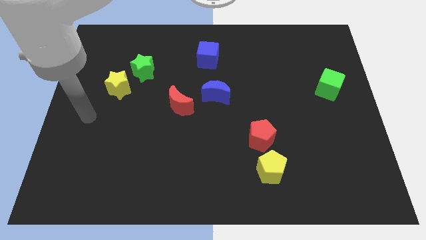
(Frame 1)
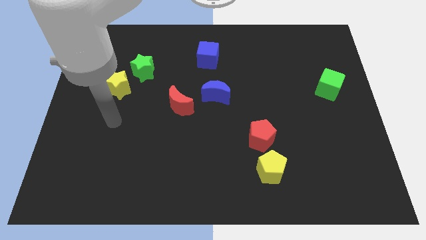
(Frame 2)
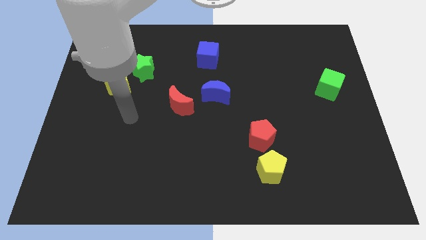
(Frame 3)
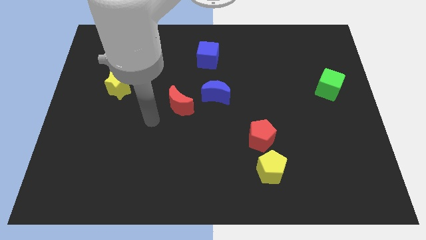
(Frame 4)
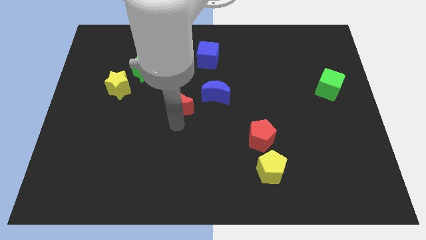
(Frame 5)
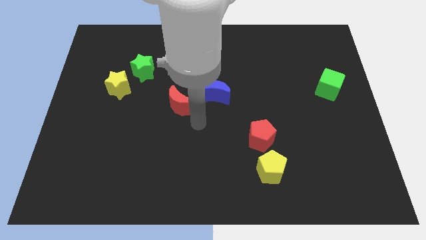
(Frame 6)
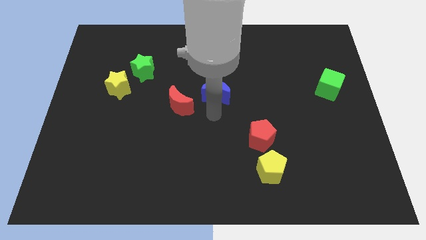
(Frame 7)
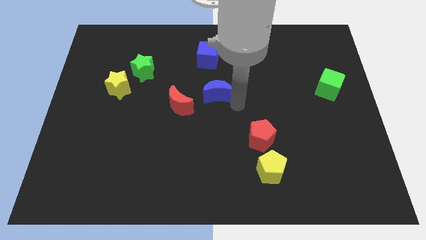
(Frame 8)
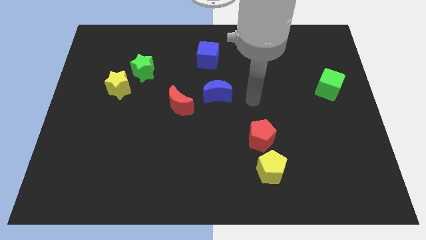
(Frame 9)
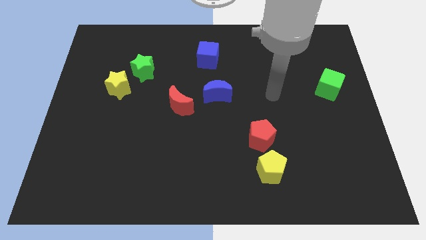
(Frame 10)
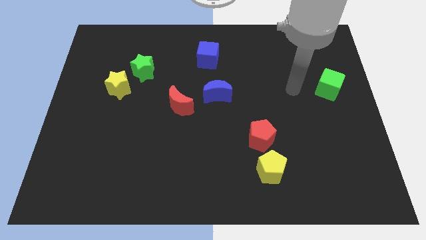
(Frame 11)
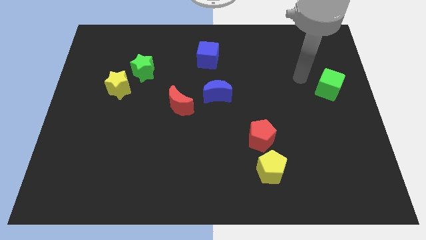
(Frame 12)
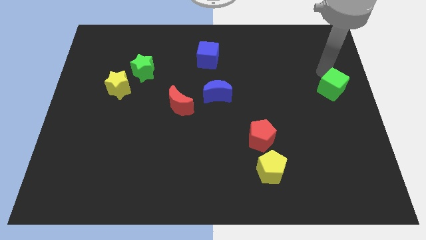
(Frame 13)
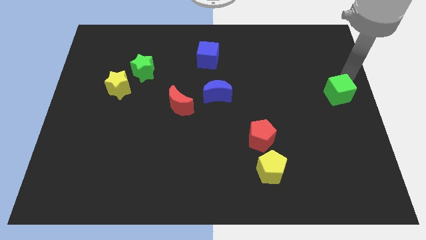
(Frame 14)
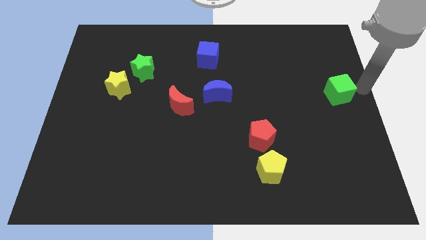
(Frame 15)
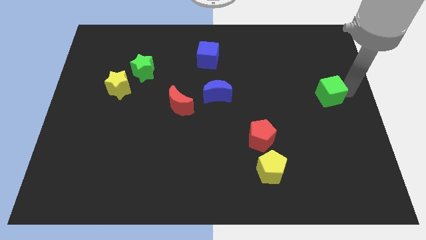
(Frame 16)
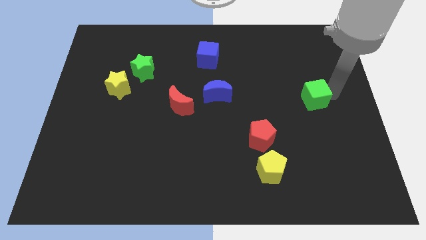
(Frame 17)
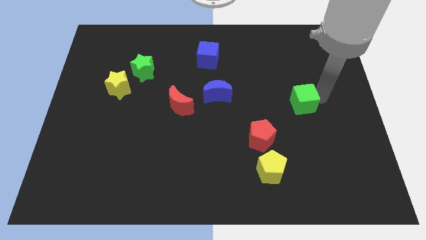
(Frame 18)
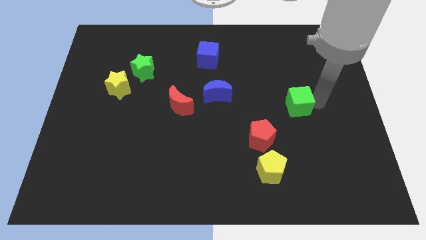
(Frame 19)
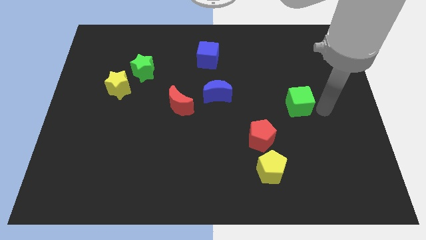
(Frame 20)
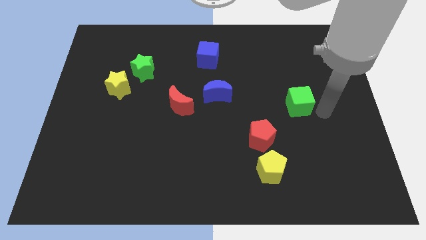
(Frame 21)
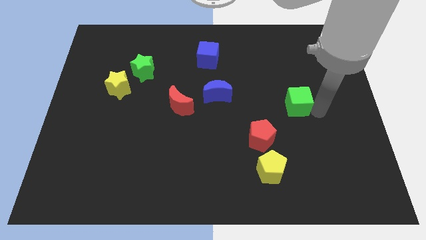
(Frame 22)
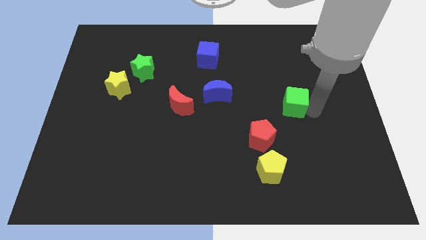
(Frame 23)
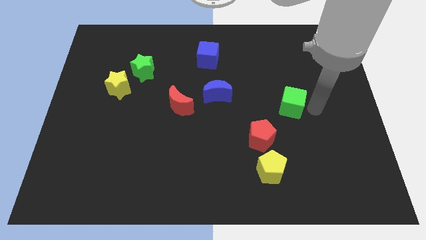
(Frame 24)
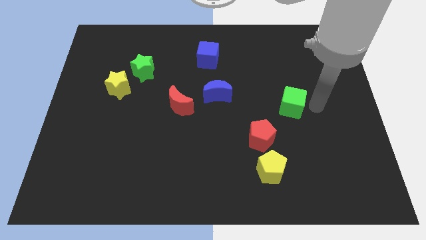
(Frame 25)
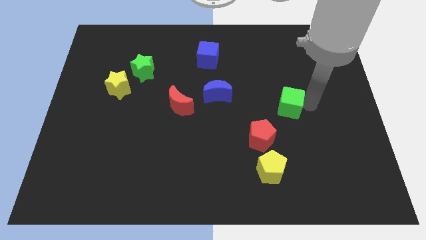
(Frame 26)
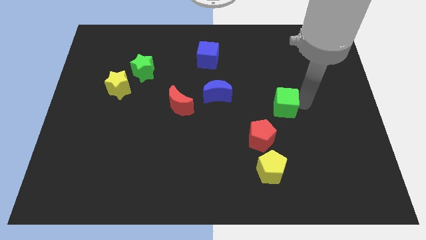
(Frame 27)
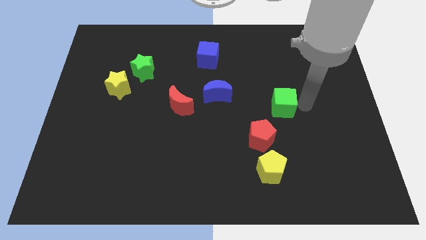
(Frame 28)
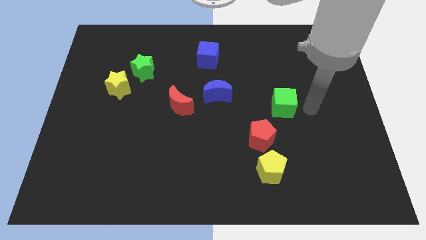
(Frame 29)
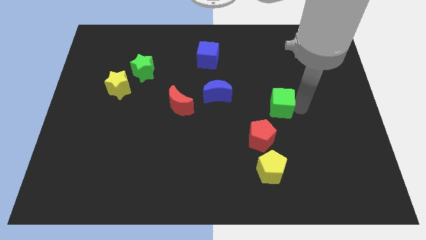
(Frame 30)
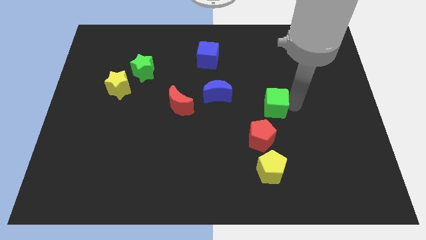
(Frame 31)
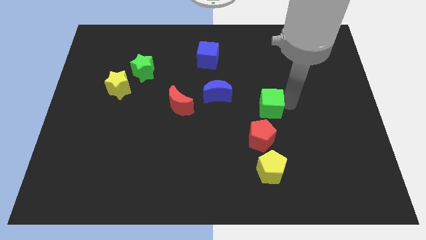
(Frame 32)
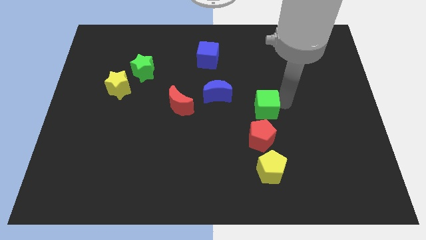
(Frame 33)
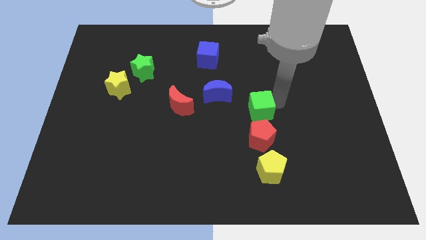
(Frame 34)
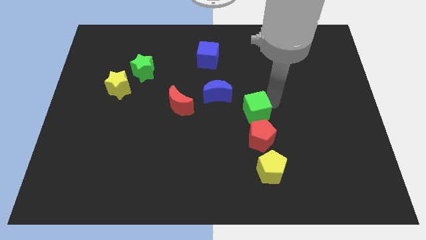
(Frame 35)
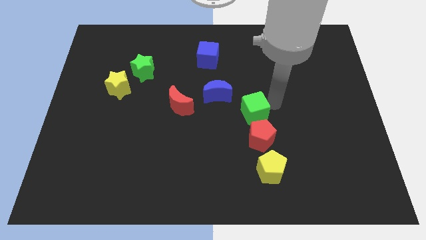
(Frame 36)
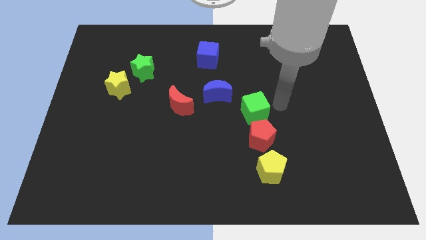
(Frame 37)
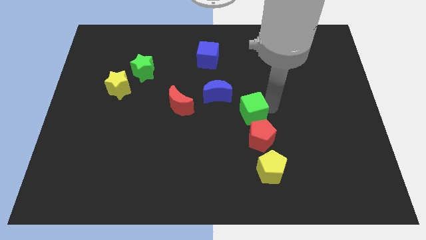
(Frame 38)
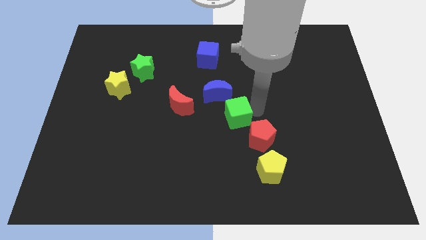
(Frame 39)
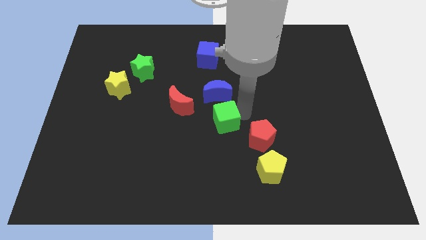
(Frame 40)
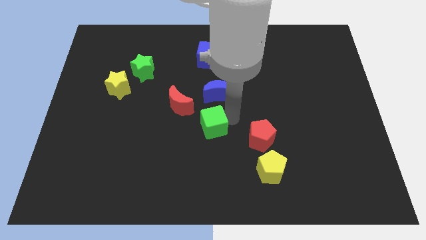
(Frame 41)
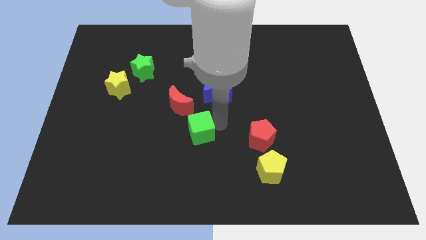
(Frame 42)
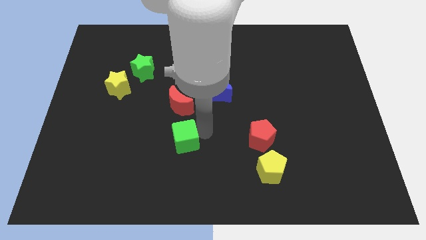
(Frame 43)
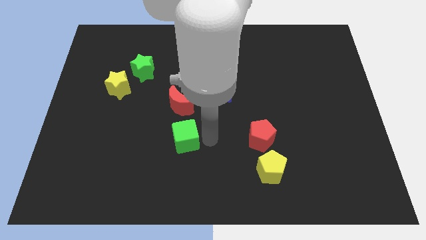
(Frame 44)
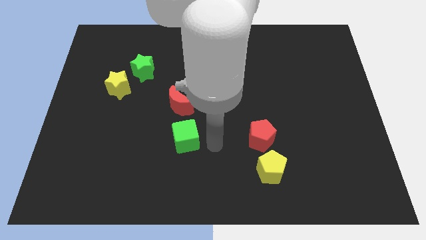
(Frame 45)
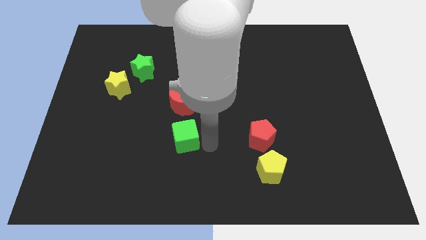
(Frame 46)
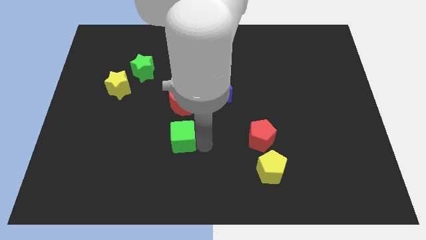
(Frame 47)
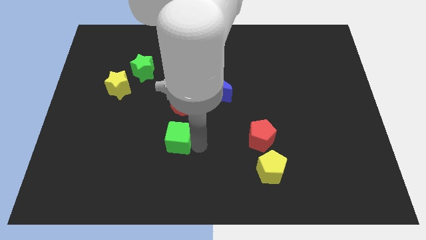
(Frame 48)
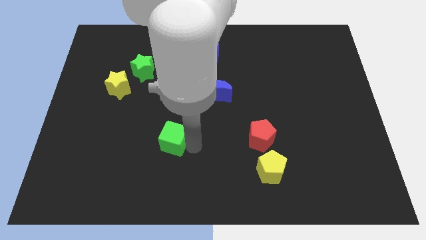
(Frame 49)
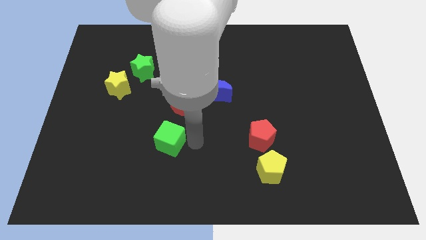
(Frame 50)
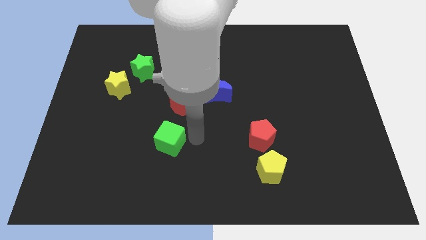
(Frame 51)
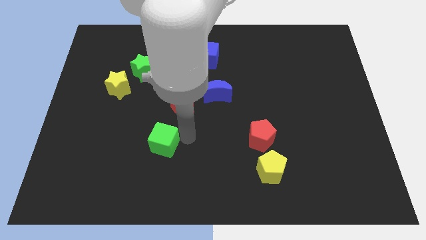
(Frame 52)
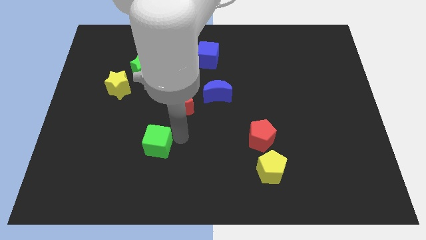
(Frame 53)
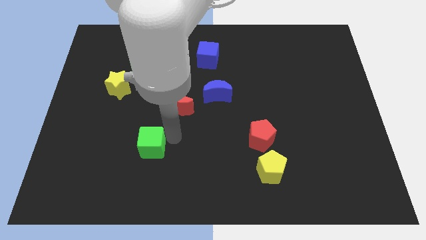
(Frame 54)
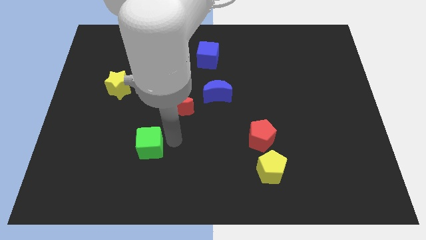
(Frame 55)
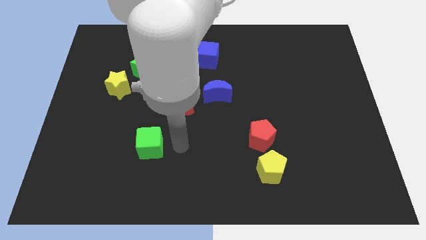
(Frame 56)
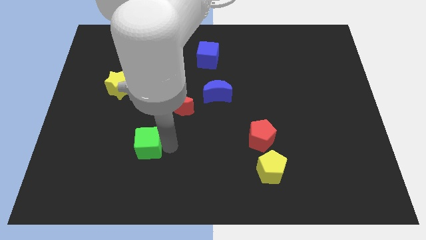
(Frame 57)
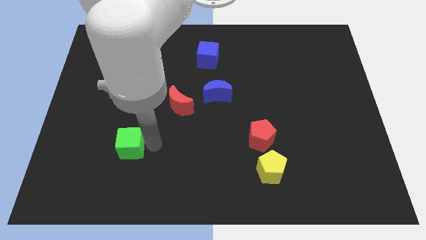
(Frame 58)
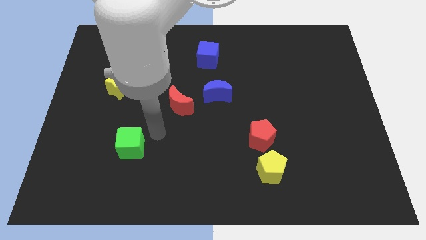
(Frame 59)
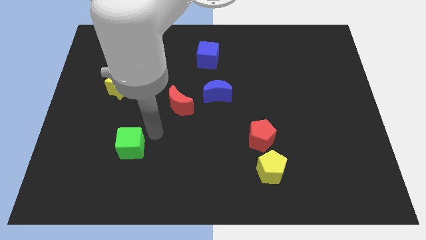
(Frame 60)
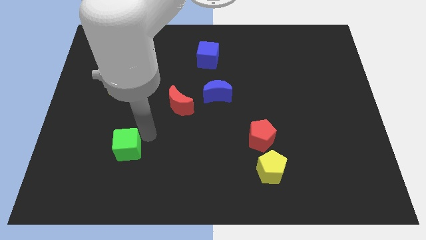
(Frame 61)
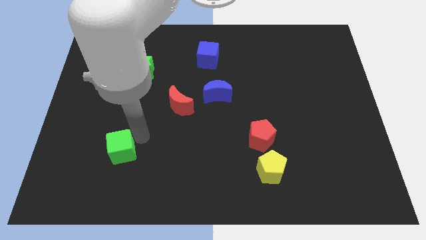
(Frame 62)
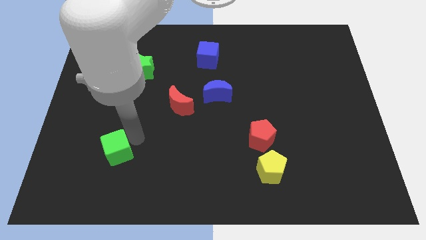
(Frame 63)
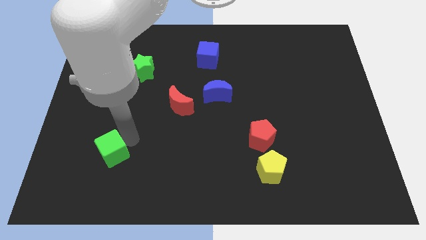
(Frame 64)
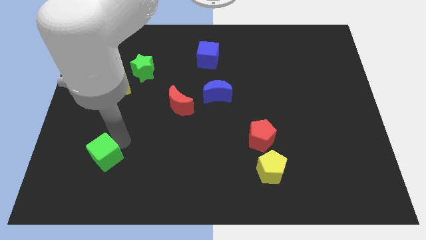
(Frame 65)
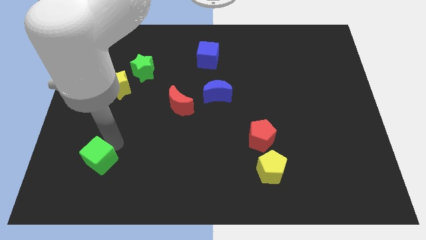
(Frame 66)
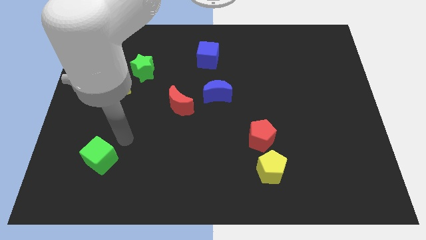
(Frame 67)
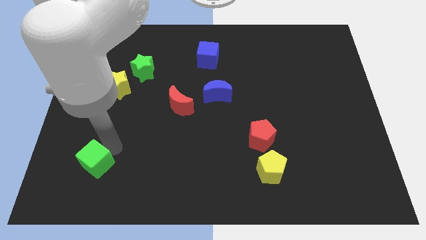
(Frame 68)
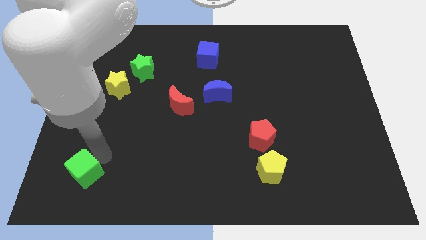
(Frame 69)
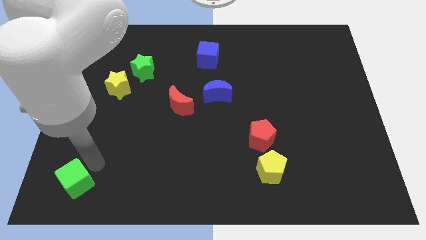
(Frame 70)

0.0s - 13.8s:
move the green cube to the bottom left of the board
